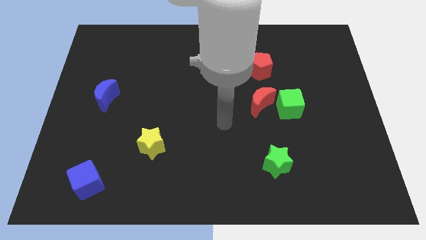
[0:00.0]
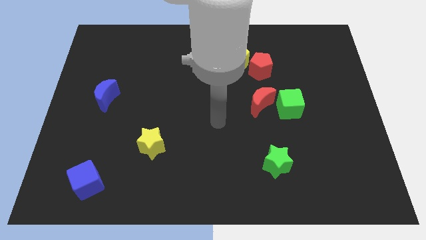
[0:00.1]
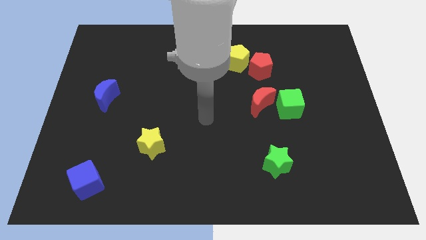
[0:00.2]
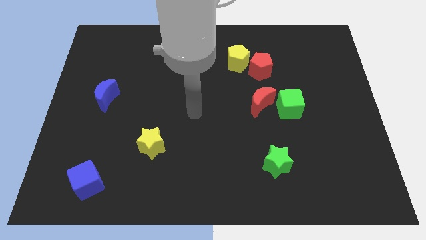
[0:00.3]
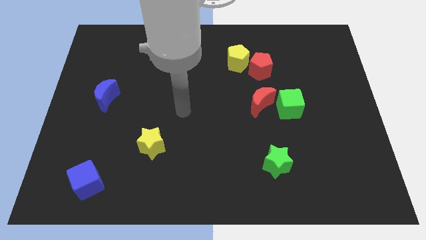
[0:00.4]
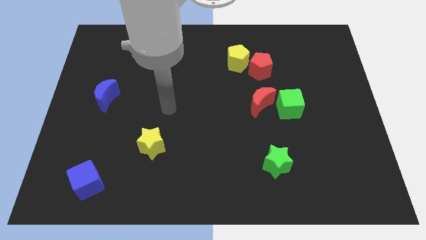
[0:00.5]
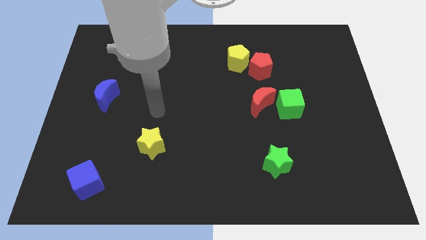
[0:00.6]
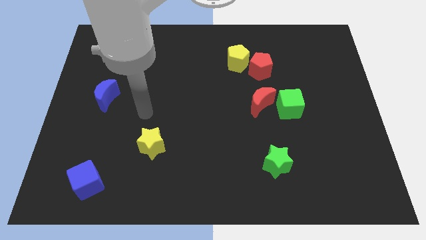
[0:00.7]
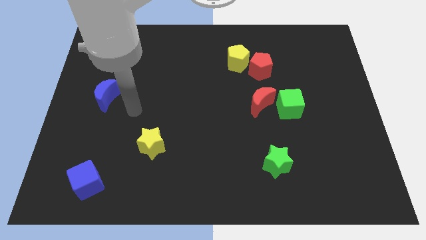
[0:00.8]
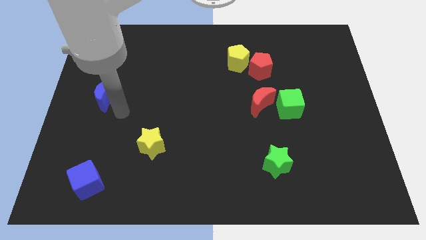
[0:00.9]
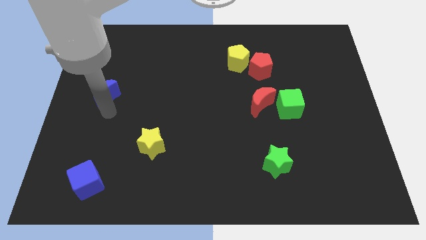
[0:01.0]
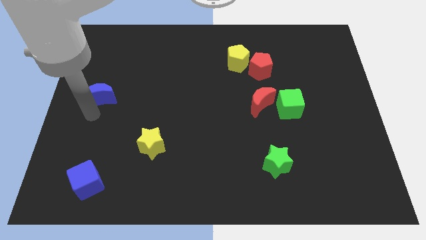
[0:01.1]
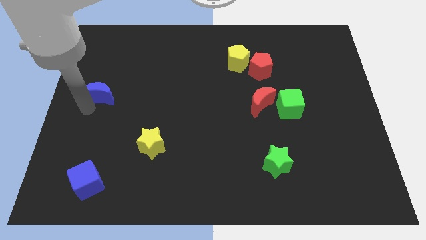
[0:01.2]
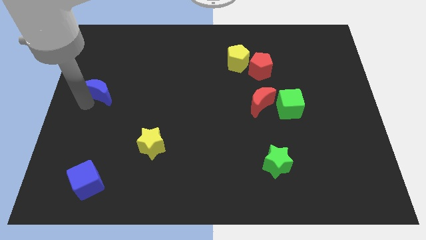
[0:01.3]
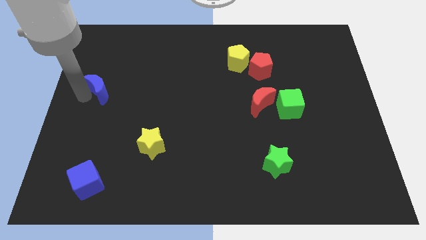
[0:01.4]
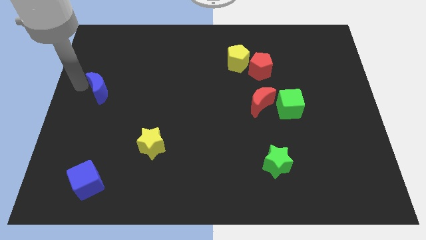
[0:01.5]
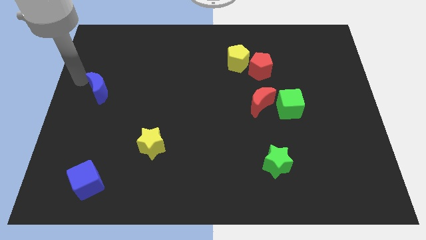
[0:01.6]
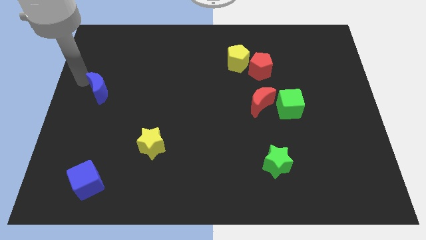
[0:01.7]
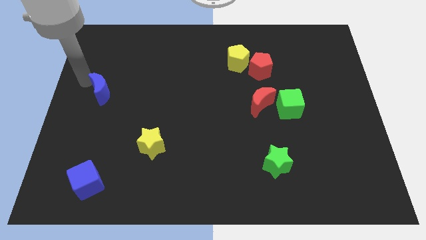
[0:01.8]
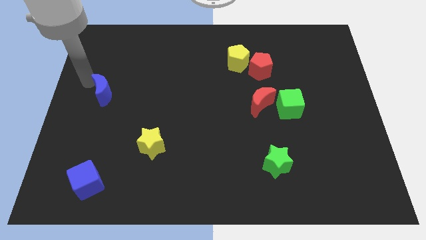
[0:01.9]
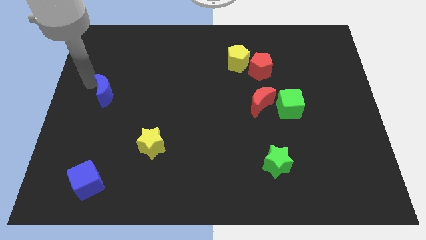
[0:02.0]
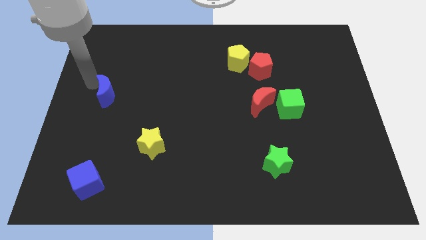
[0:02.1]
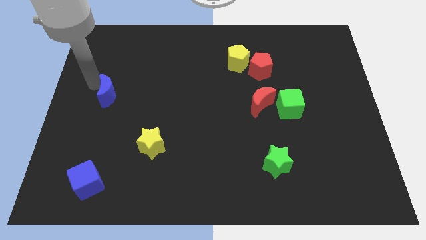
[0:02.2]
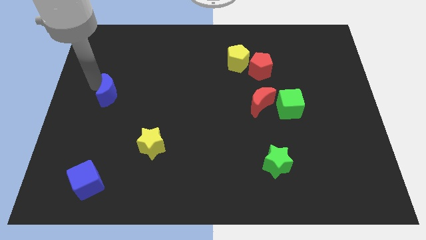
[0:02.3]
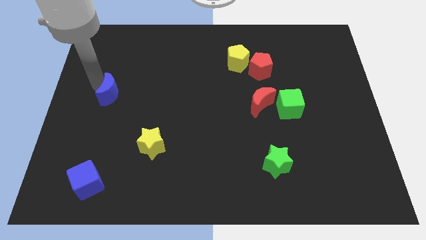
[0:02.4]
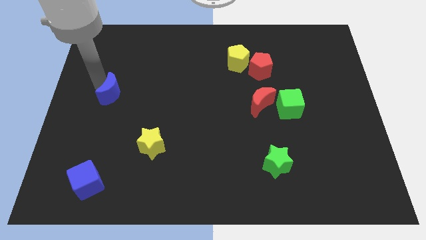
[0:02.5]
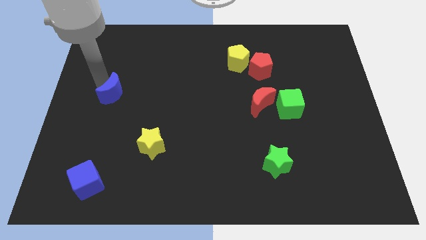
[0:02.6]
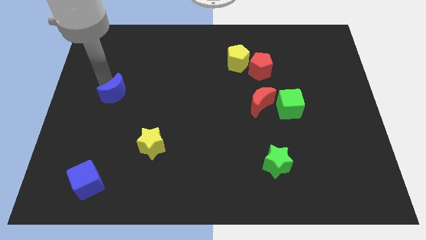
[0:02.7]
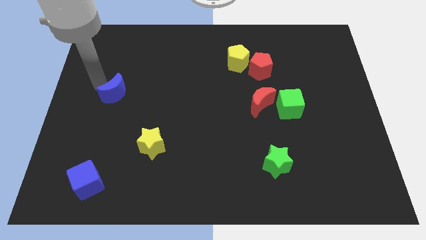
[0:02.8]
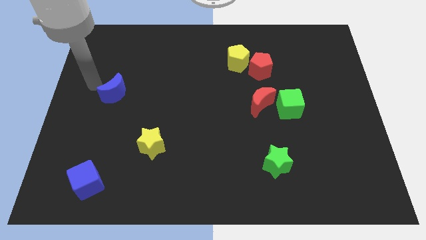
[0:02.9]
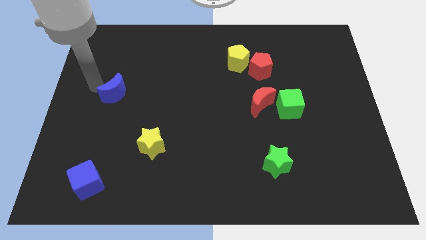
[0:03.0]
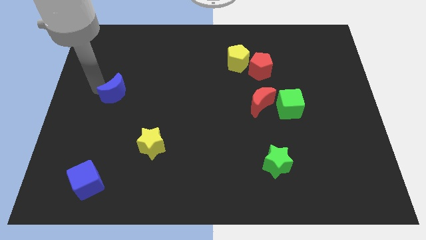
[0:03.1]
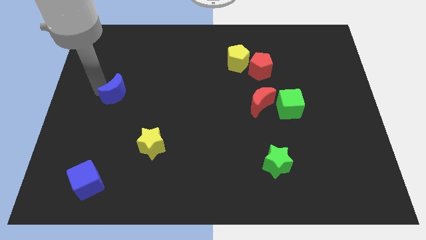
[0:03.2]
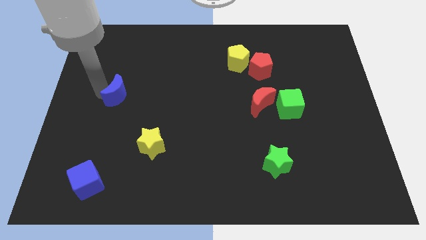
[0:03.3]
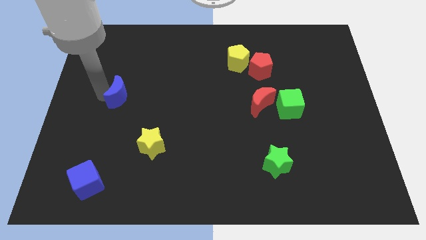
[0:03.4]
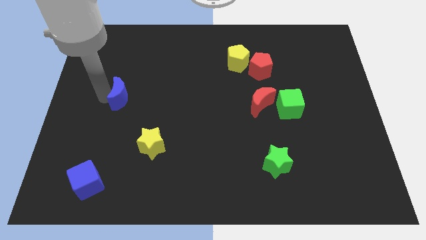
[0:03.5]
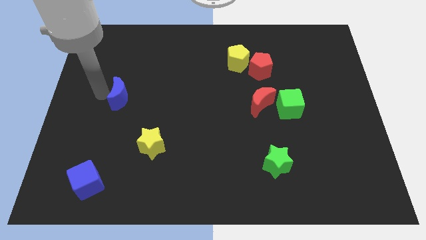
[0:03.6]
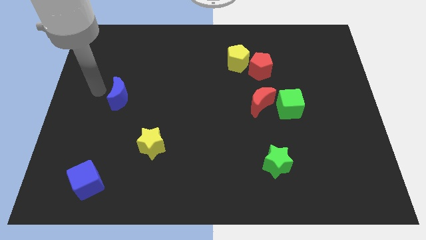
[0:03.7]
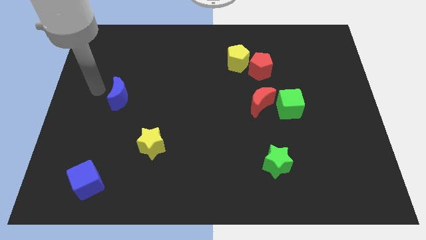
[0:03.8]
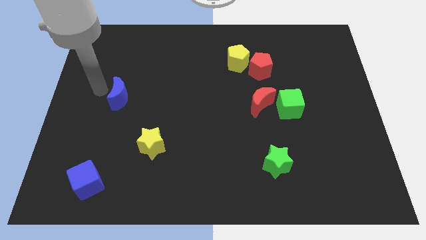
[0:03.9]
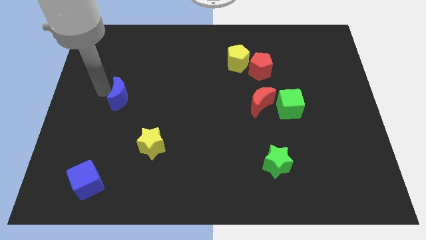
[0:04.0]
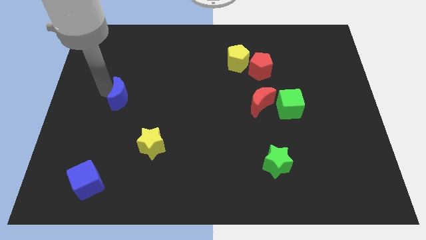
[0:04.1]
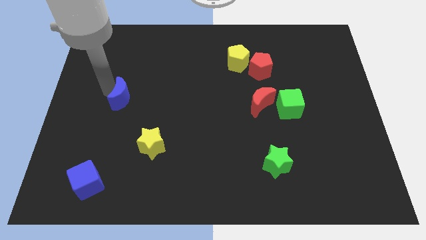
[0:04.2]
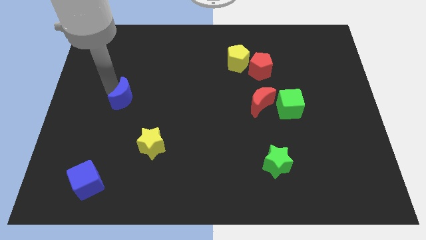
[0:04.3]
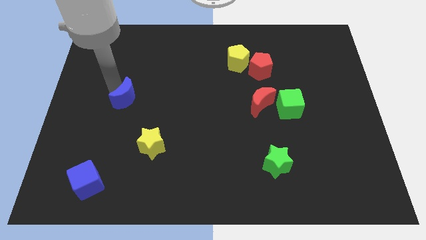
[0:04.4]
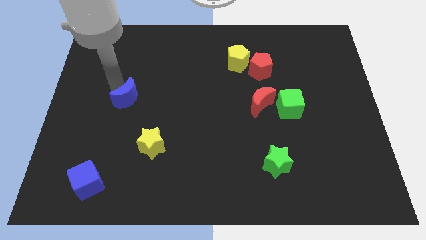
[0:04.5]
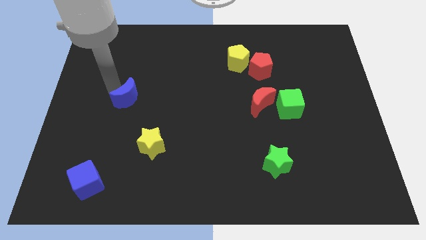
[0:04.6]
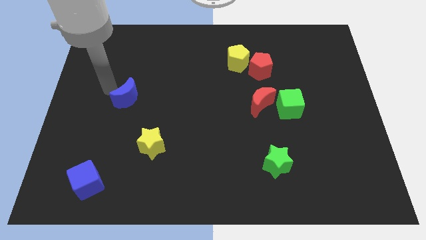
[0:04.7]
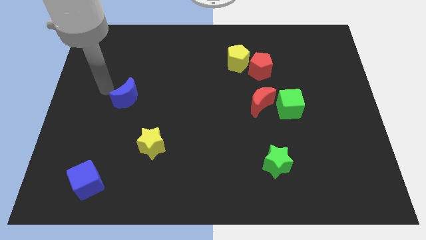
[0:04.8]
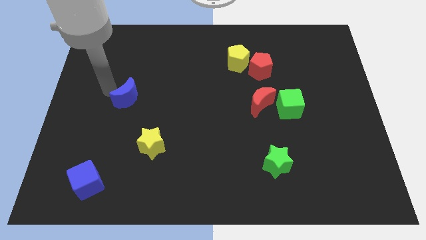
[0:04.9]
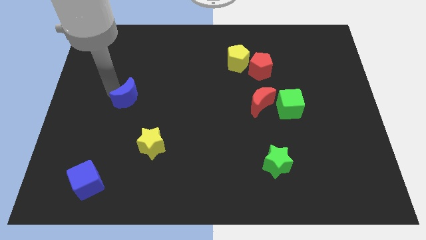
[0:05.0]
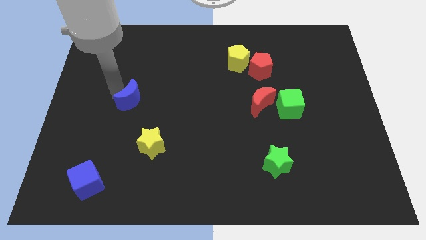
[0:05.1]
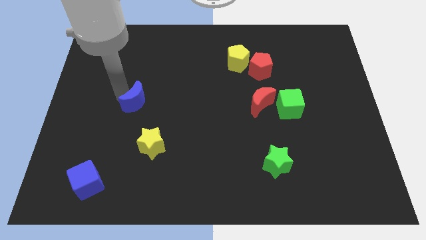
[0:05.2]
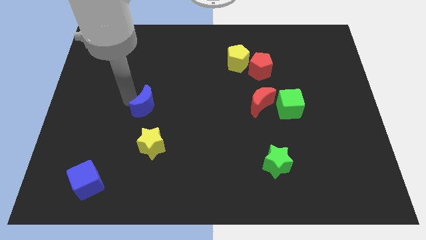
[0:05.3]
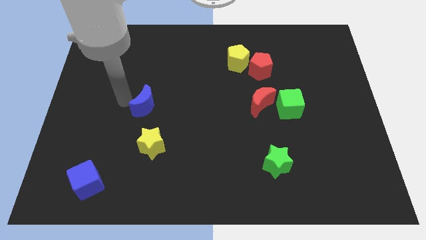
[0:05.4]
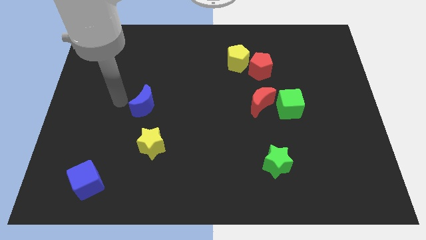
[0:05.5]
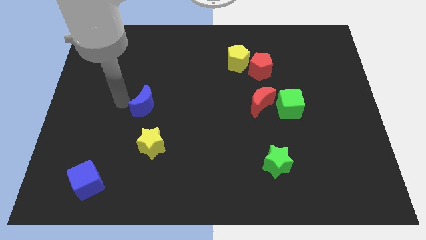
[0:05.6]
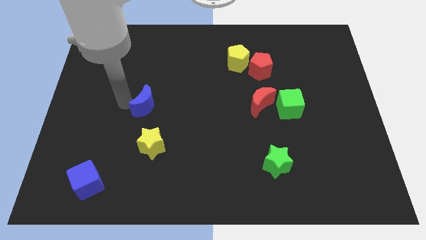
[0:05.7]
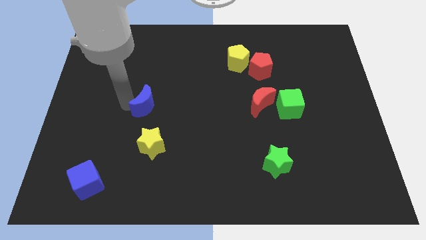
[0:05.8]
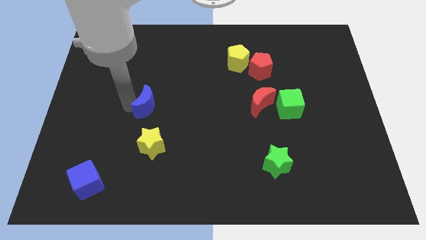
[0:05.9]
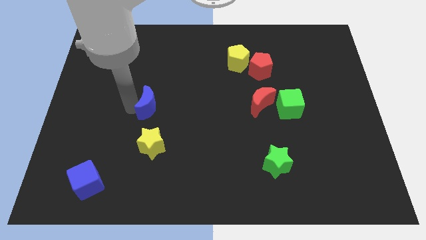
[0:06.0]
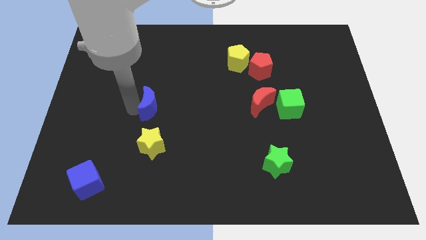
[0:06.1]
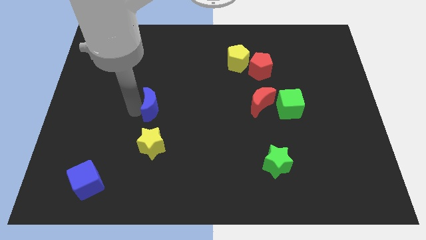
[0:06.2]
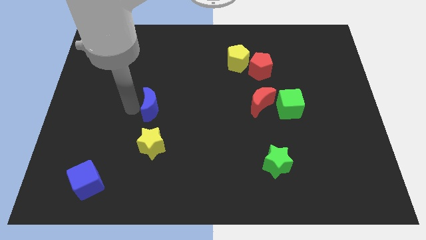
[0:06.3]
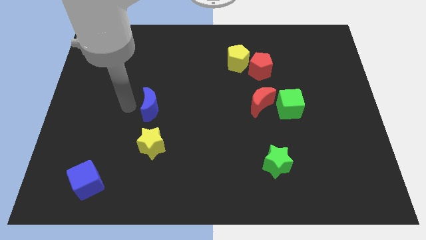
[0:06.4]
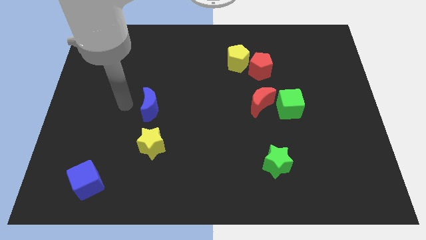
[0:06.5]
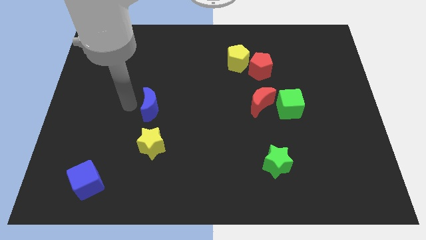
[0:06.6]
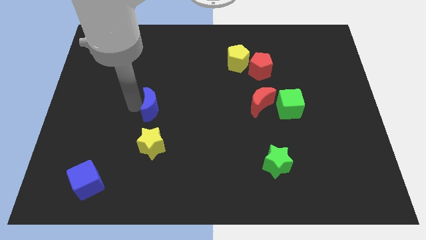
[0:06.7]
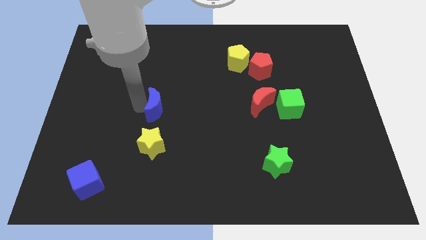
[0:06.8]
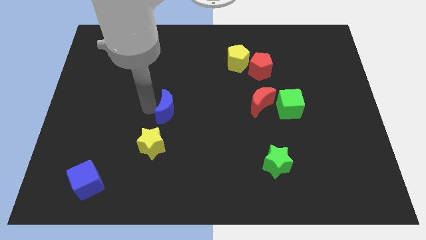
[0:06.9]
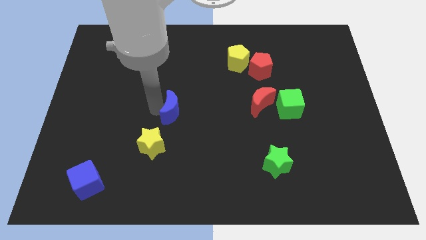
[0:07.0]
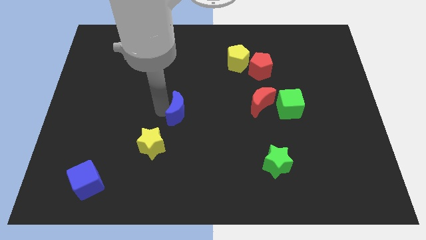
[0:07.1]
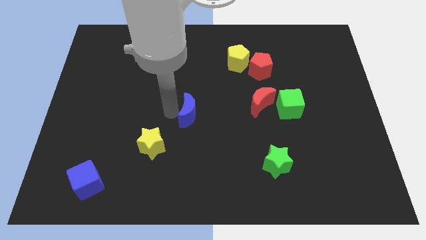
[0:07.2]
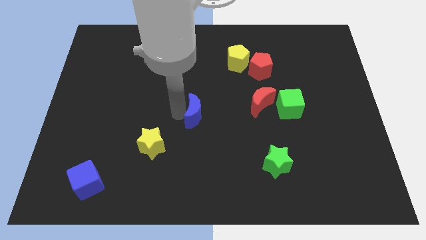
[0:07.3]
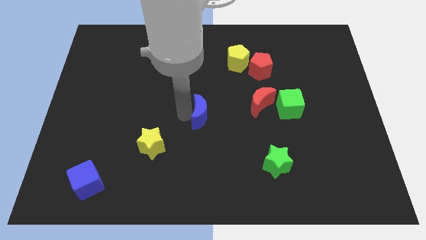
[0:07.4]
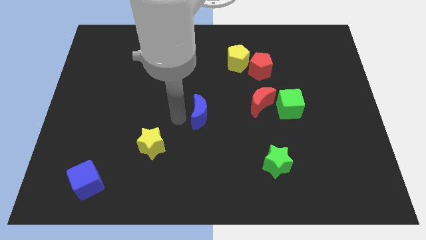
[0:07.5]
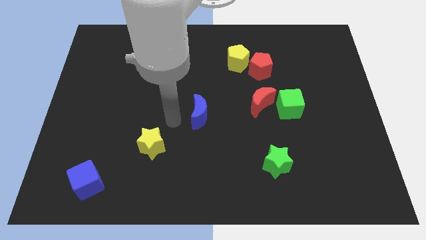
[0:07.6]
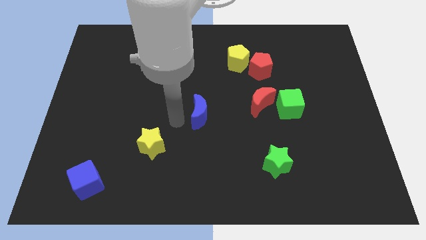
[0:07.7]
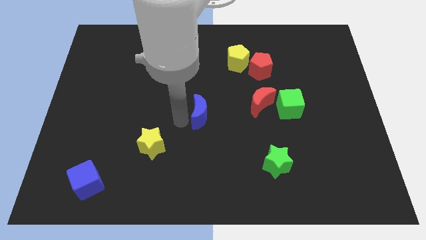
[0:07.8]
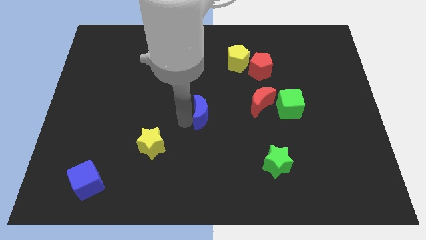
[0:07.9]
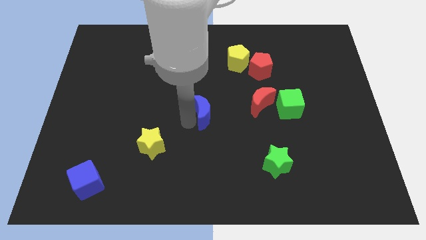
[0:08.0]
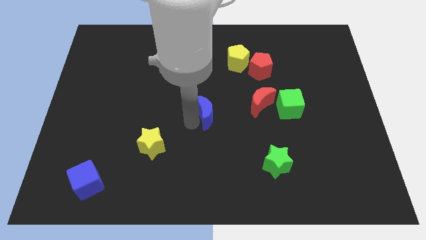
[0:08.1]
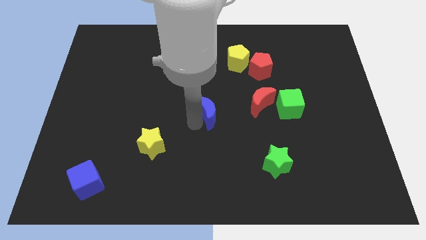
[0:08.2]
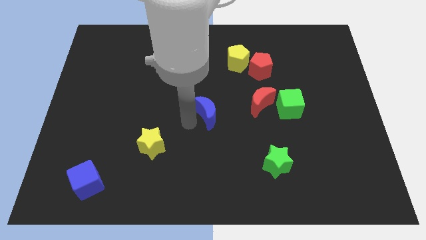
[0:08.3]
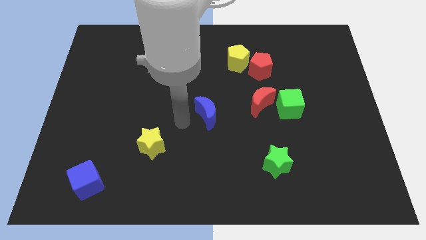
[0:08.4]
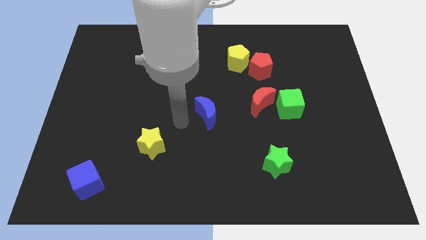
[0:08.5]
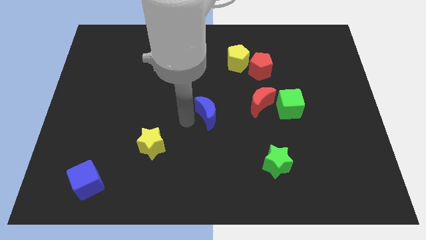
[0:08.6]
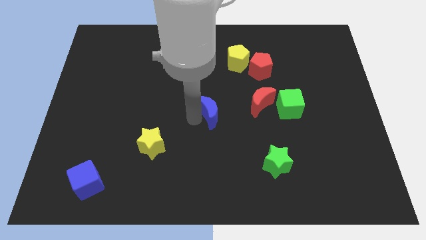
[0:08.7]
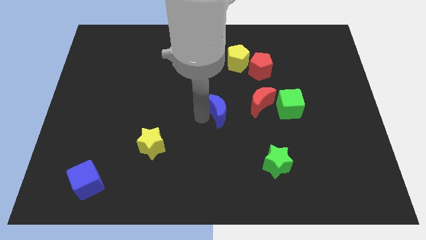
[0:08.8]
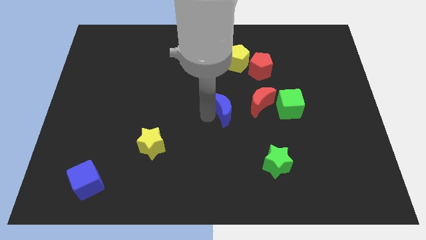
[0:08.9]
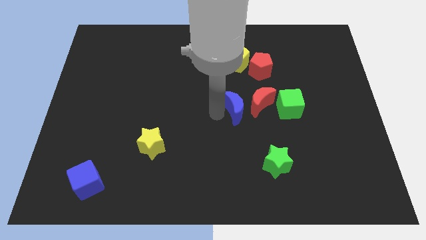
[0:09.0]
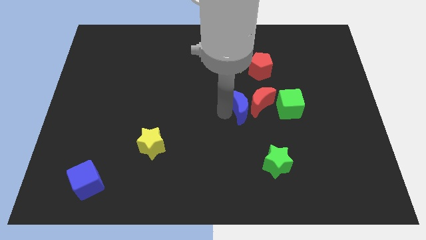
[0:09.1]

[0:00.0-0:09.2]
push the blue moon to the red moon
